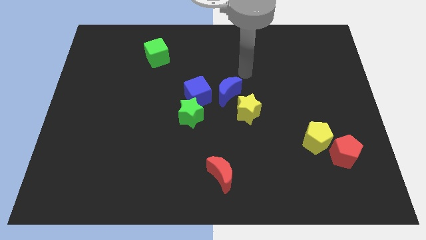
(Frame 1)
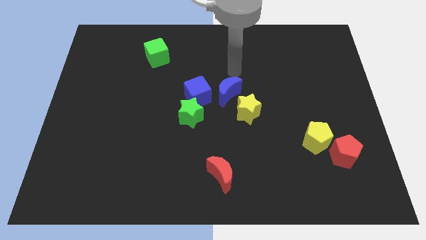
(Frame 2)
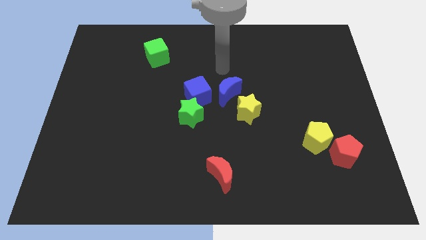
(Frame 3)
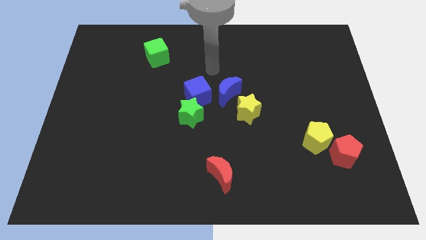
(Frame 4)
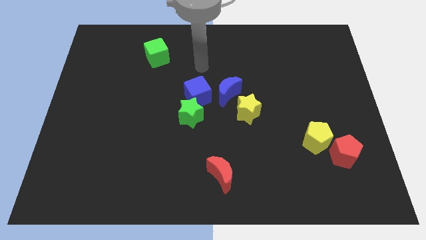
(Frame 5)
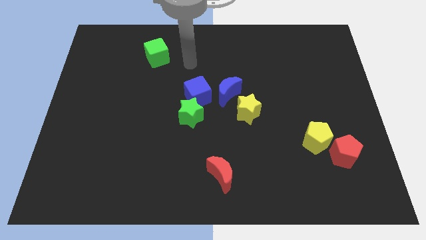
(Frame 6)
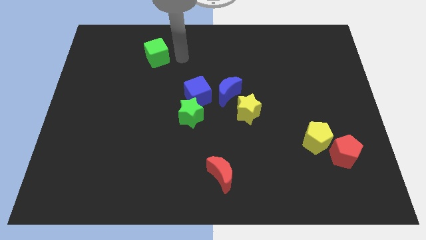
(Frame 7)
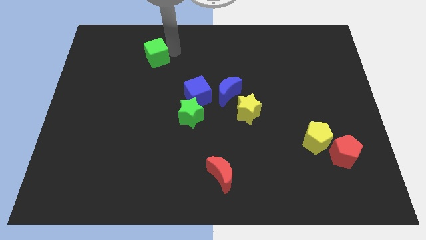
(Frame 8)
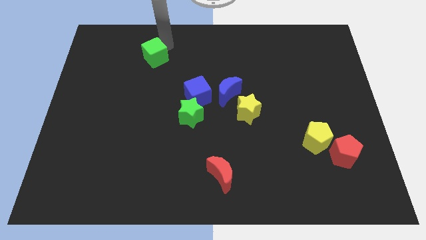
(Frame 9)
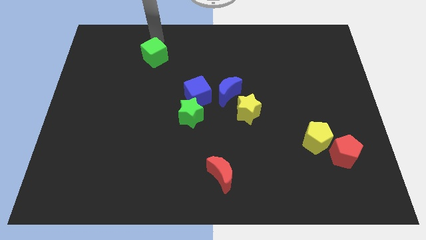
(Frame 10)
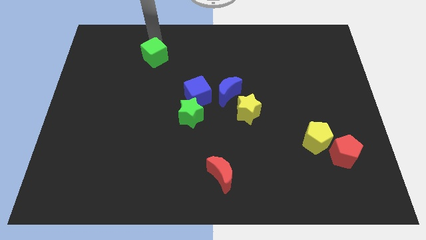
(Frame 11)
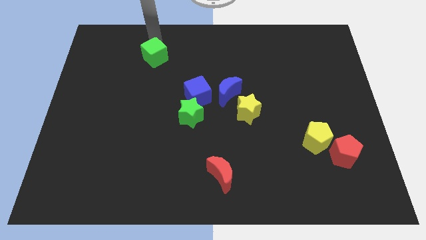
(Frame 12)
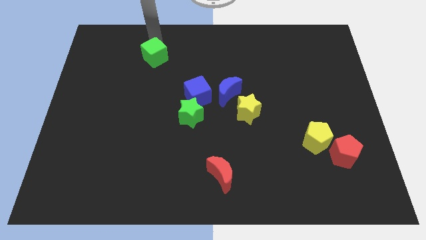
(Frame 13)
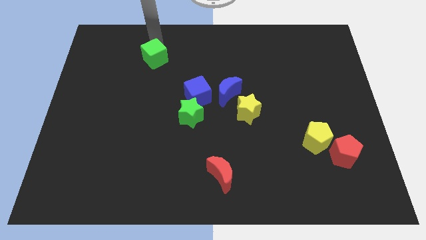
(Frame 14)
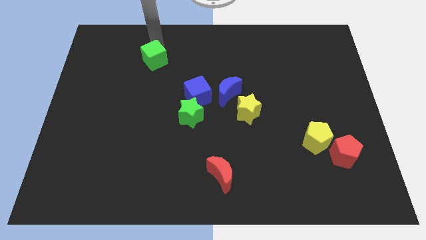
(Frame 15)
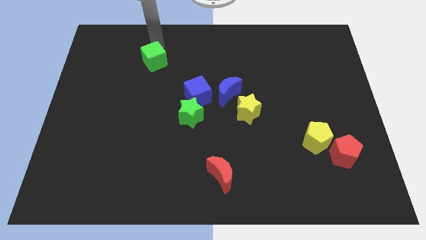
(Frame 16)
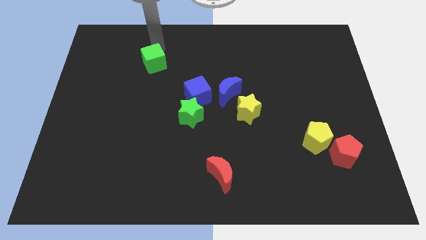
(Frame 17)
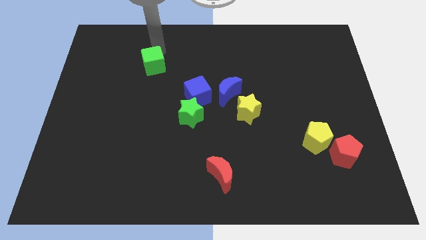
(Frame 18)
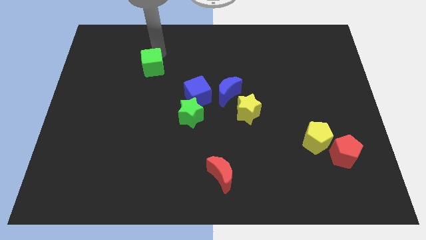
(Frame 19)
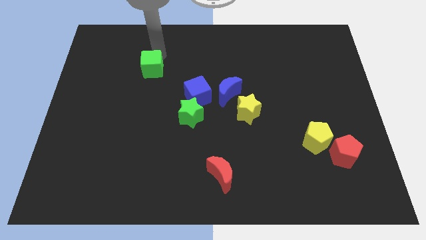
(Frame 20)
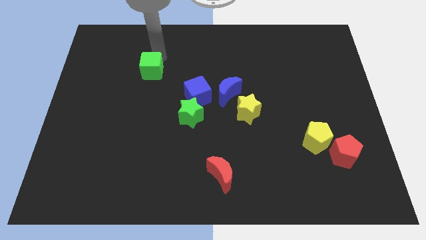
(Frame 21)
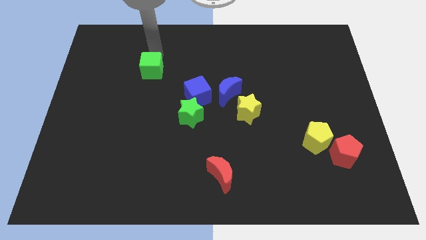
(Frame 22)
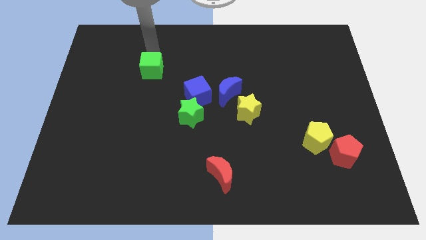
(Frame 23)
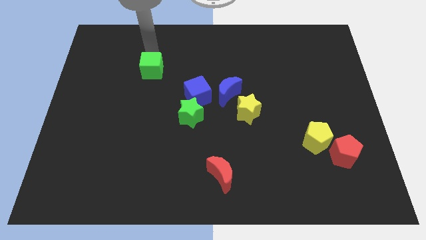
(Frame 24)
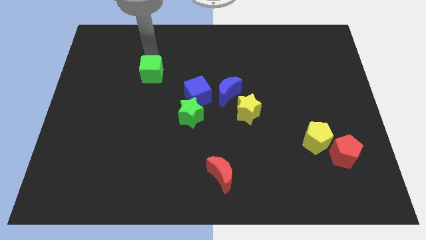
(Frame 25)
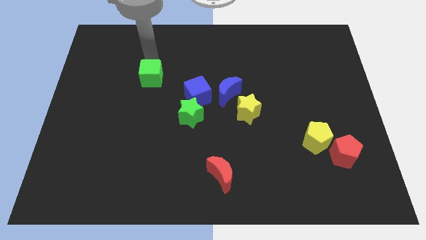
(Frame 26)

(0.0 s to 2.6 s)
push the green cube downwards slightly

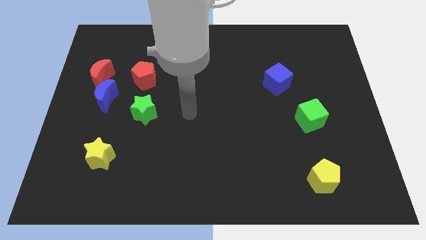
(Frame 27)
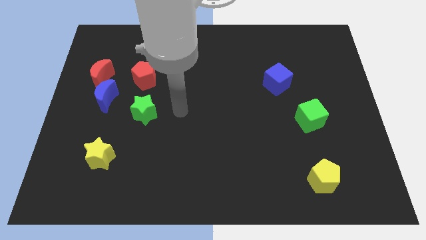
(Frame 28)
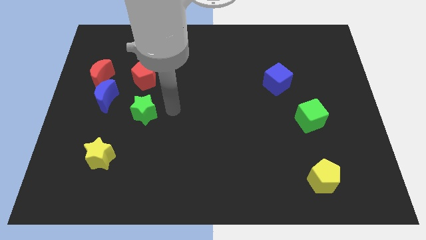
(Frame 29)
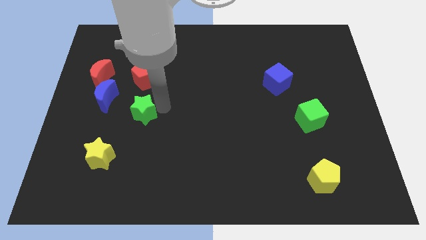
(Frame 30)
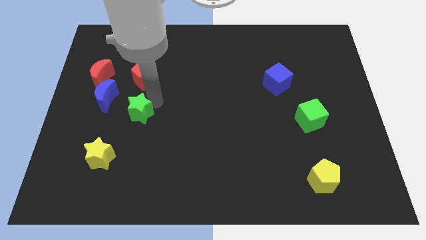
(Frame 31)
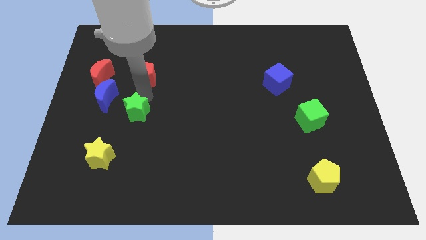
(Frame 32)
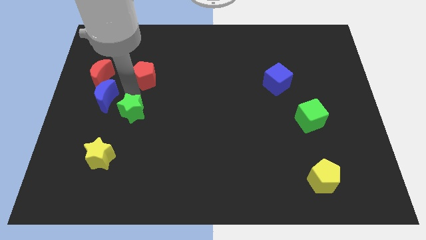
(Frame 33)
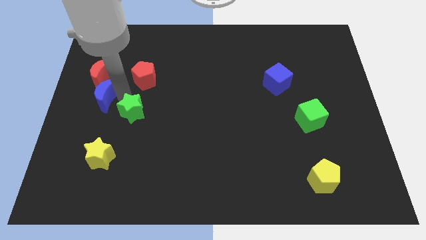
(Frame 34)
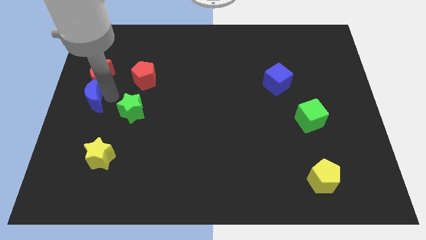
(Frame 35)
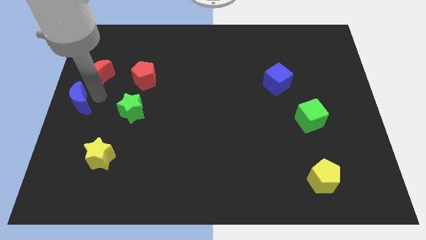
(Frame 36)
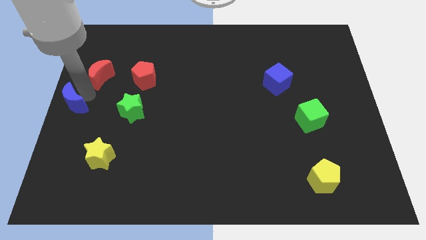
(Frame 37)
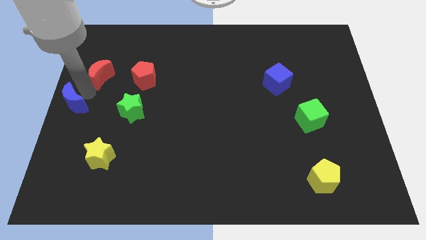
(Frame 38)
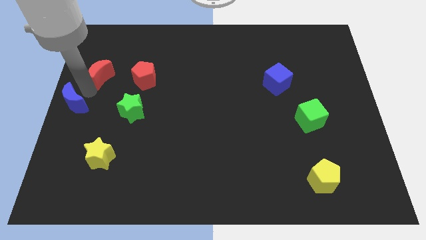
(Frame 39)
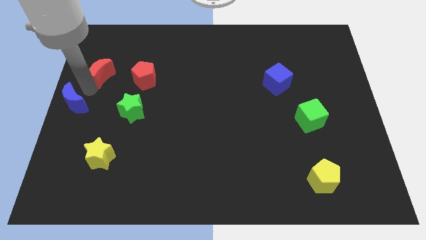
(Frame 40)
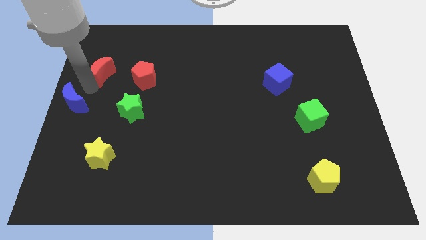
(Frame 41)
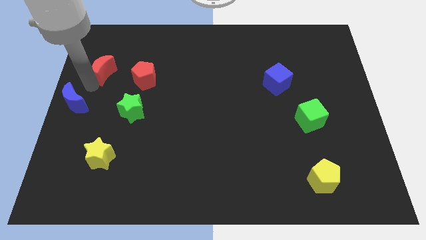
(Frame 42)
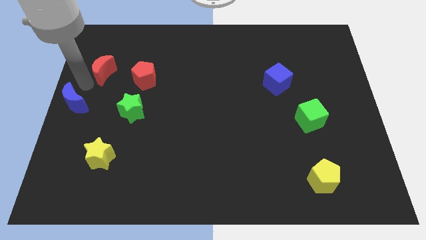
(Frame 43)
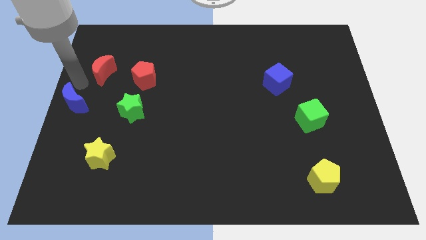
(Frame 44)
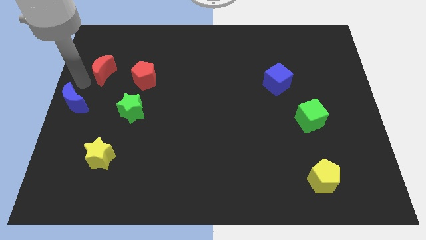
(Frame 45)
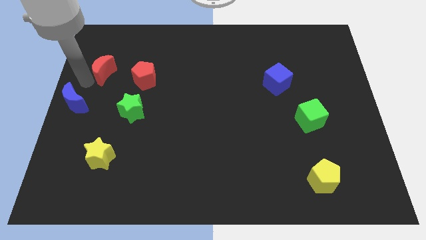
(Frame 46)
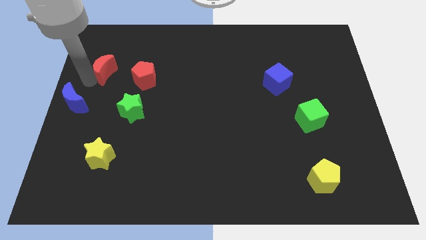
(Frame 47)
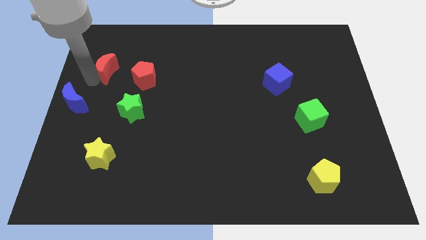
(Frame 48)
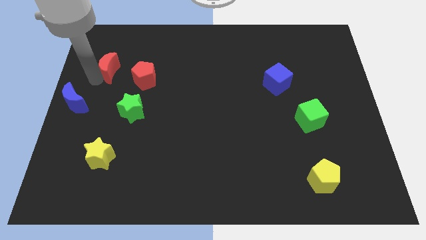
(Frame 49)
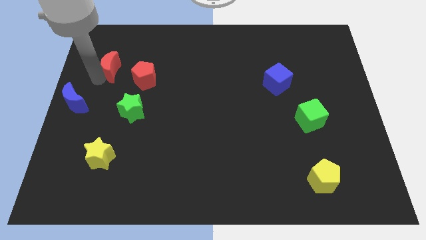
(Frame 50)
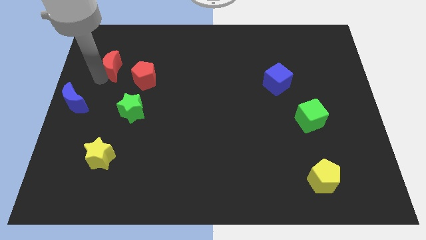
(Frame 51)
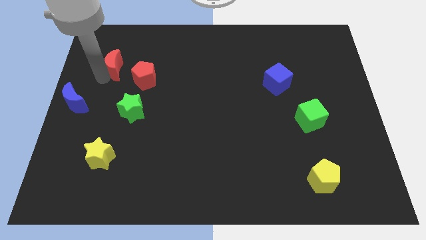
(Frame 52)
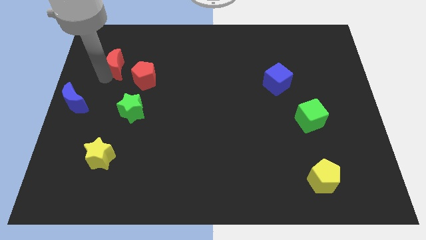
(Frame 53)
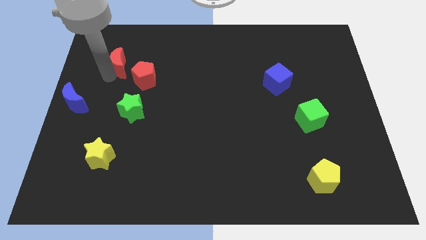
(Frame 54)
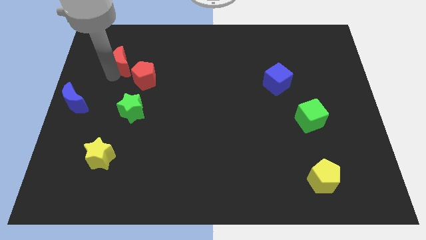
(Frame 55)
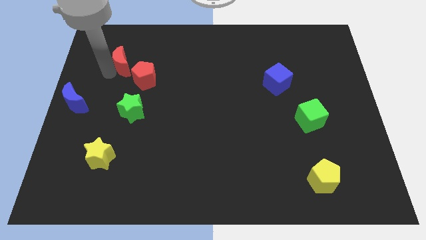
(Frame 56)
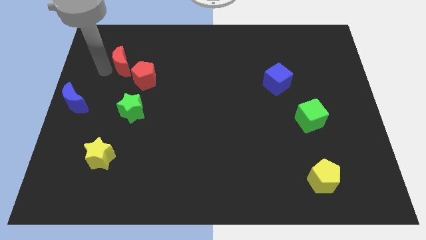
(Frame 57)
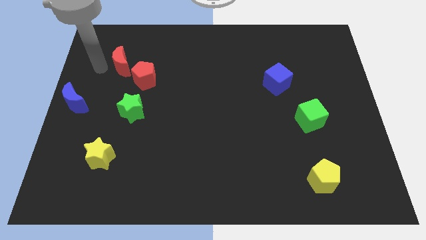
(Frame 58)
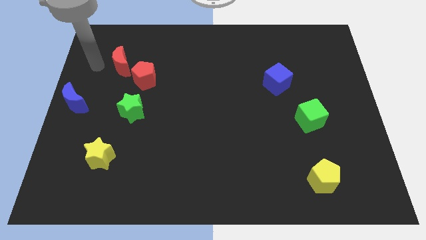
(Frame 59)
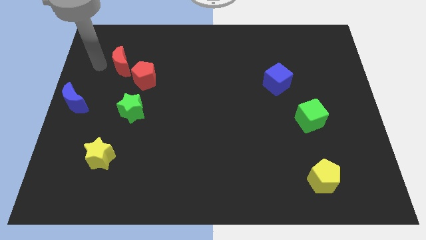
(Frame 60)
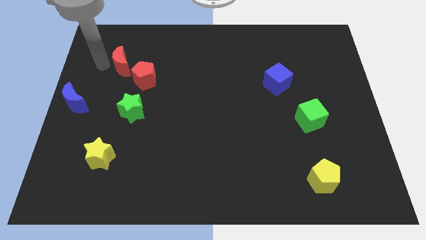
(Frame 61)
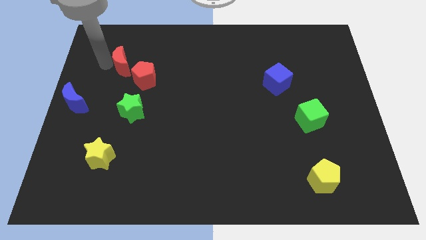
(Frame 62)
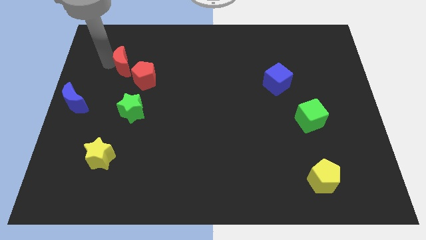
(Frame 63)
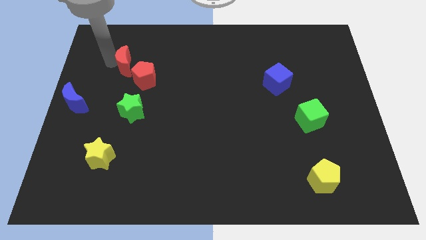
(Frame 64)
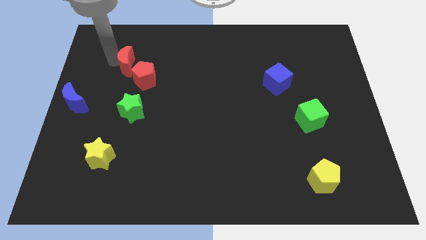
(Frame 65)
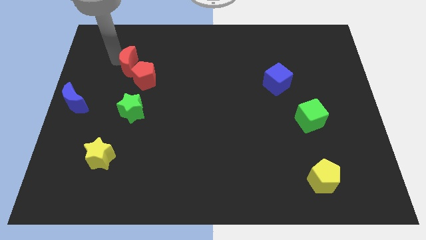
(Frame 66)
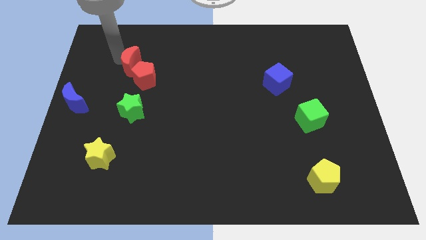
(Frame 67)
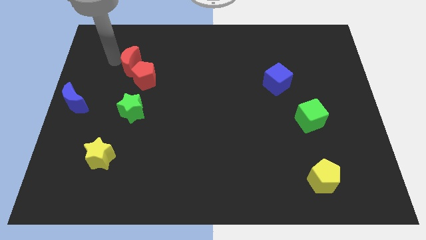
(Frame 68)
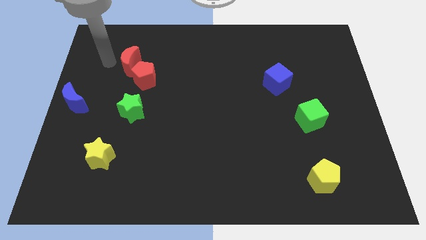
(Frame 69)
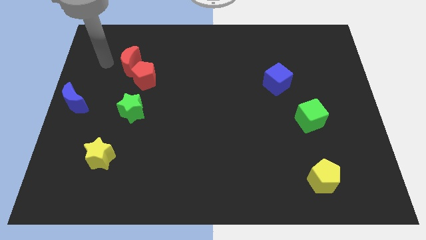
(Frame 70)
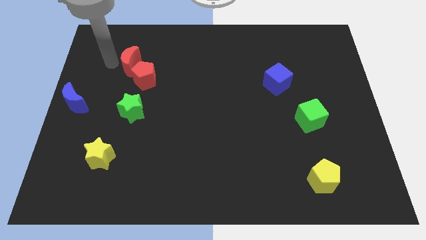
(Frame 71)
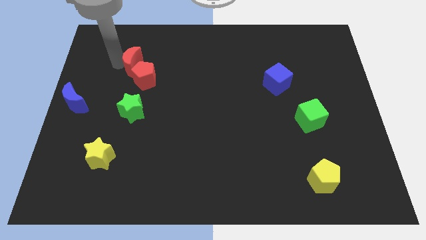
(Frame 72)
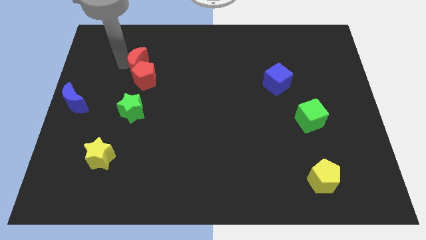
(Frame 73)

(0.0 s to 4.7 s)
slide the red moon to the right somewhat

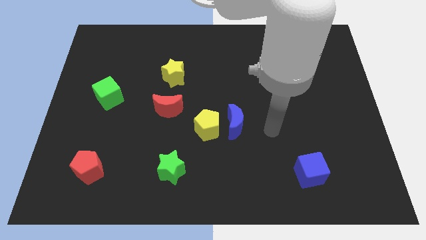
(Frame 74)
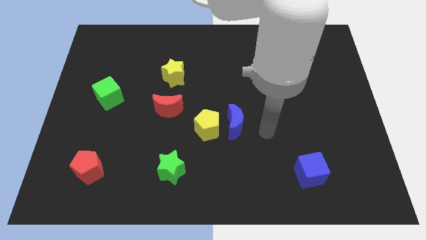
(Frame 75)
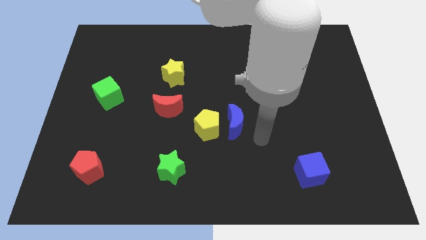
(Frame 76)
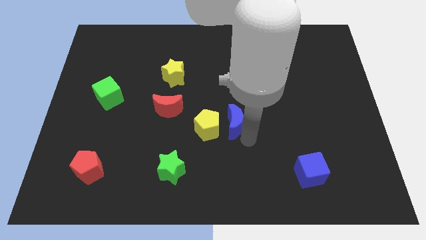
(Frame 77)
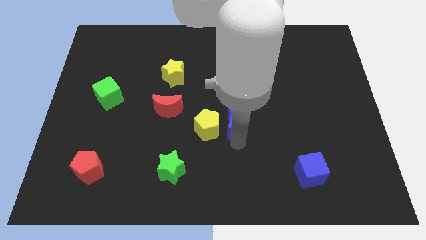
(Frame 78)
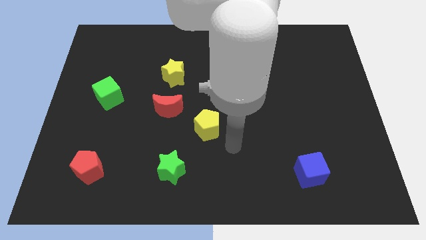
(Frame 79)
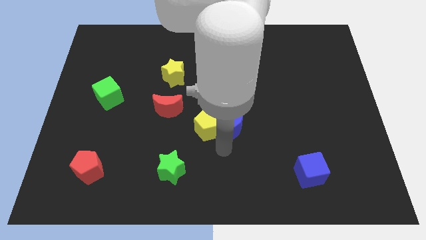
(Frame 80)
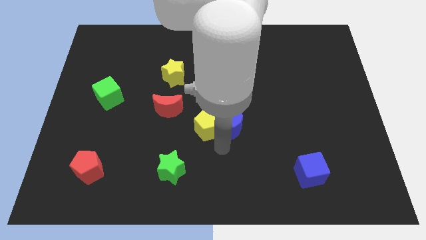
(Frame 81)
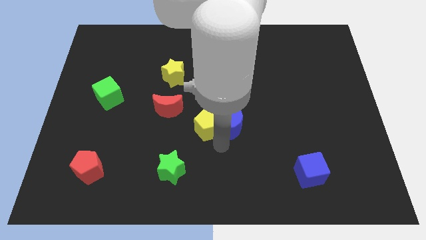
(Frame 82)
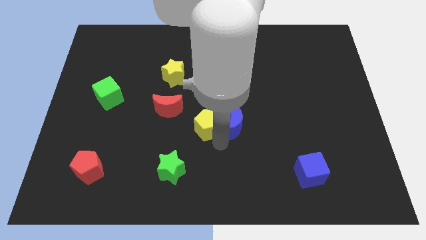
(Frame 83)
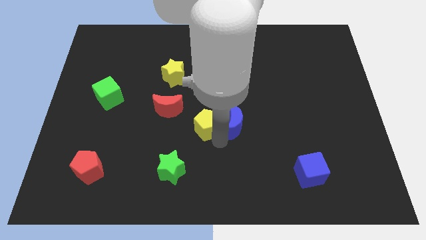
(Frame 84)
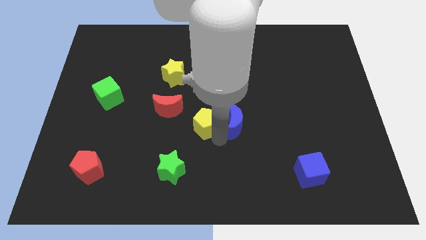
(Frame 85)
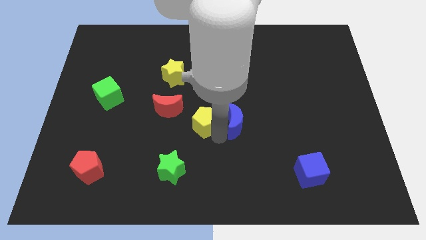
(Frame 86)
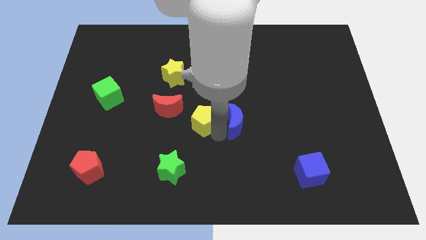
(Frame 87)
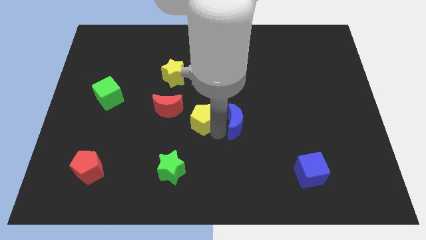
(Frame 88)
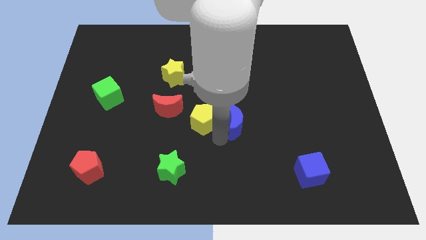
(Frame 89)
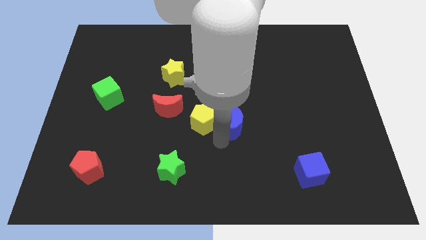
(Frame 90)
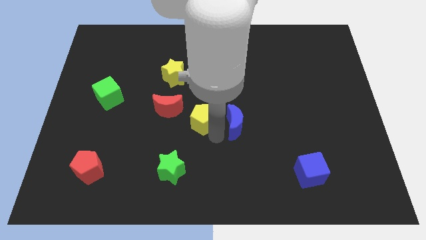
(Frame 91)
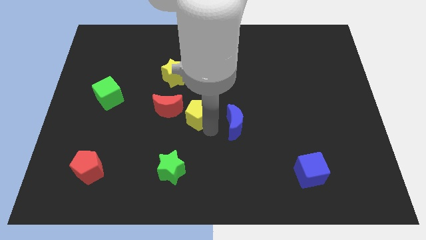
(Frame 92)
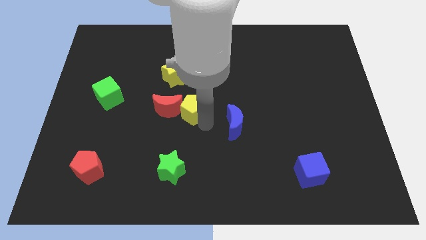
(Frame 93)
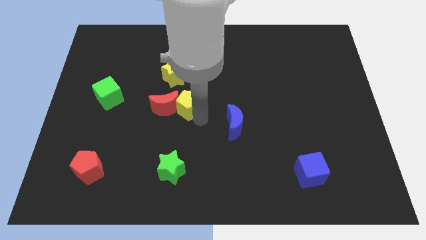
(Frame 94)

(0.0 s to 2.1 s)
slide the yellow pentagon diagonally up and to the left somewhat
